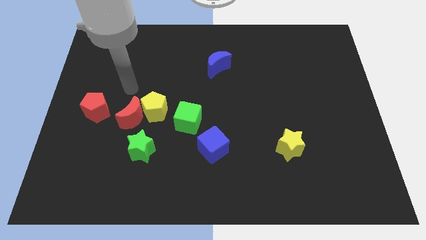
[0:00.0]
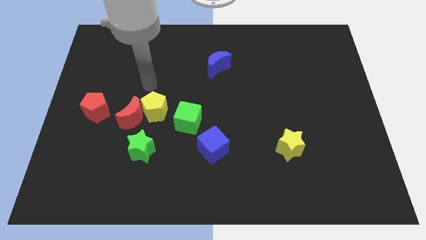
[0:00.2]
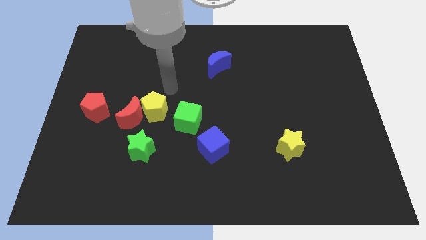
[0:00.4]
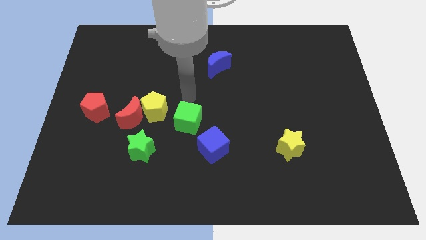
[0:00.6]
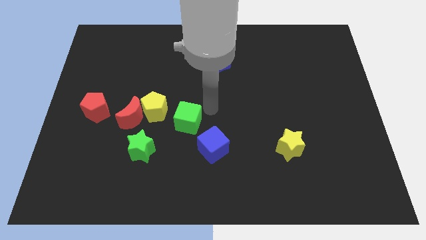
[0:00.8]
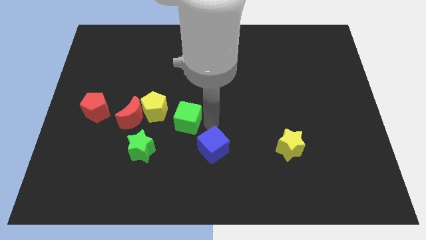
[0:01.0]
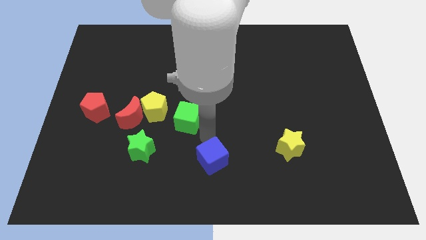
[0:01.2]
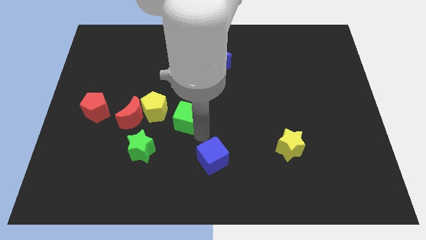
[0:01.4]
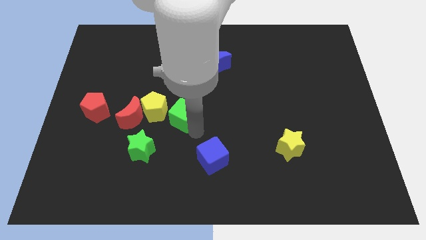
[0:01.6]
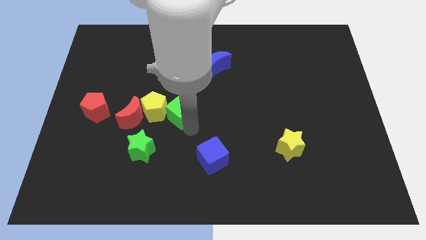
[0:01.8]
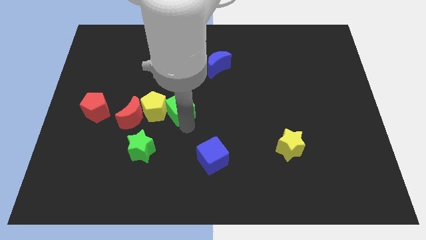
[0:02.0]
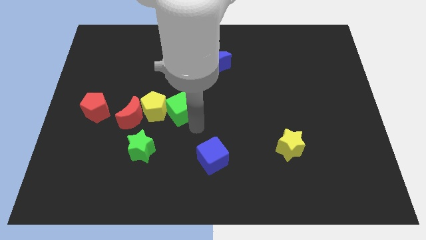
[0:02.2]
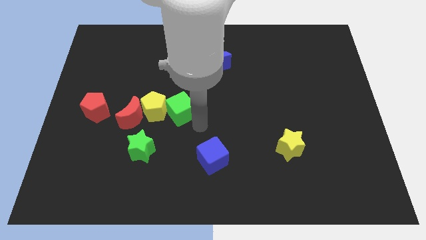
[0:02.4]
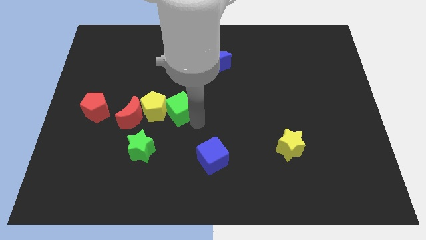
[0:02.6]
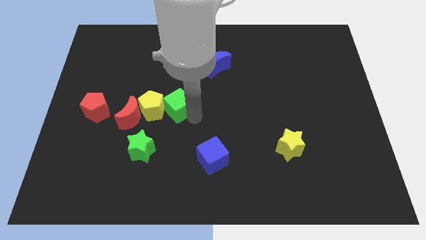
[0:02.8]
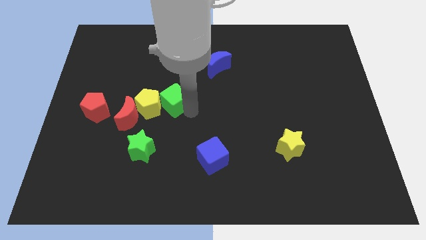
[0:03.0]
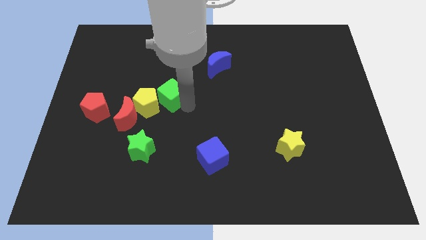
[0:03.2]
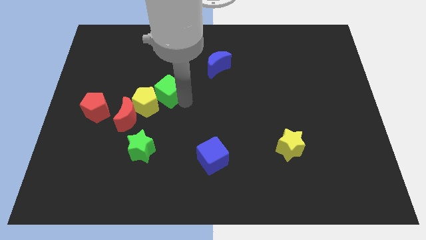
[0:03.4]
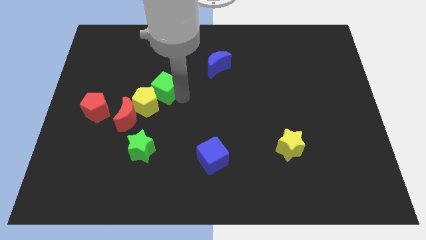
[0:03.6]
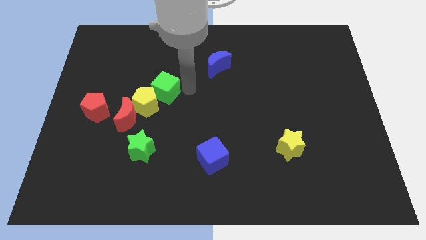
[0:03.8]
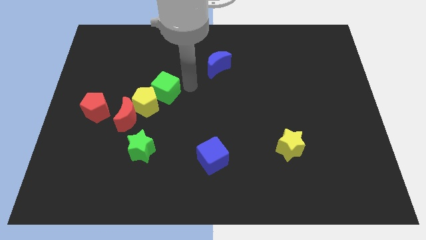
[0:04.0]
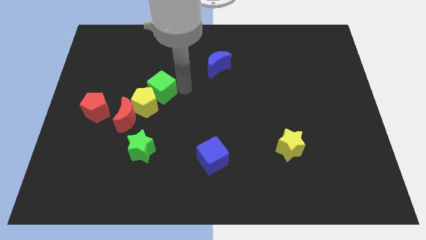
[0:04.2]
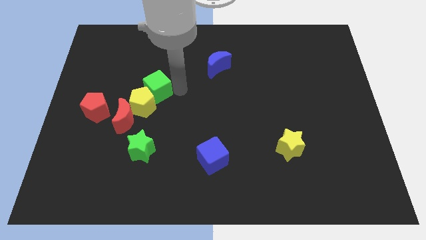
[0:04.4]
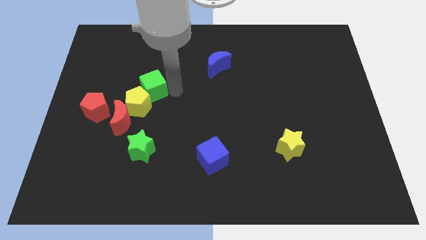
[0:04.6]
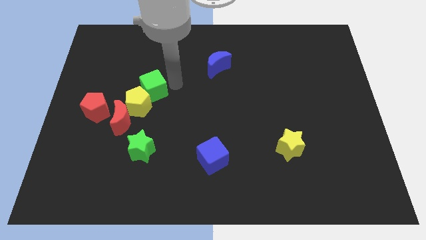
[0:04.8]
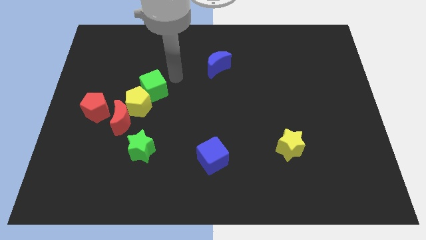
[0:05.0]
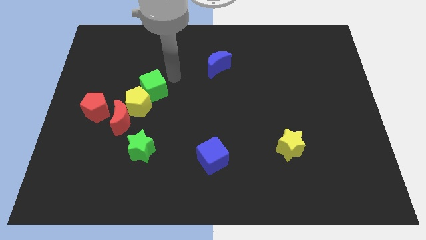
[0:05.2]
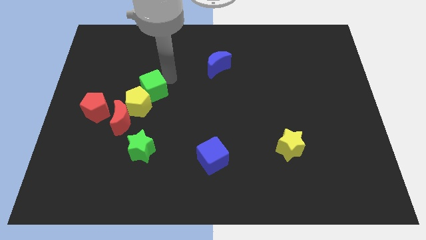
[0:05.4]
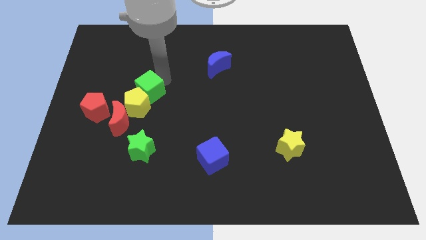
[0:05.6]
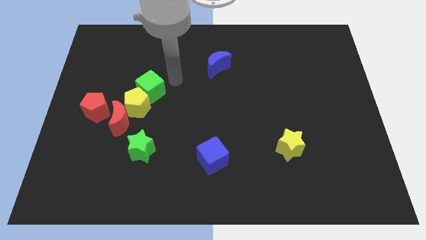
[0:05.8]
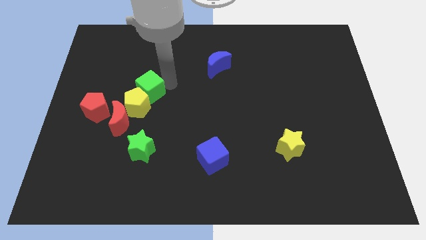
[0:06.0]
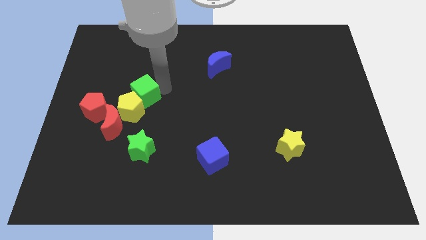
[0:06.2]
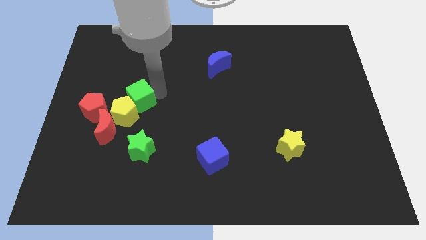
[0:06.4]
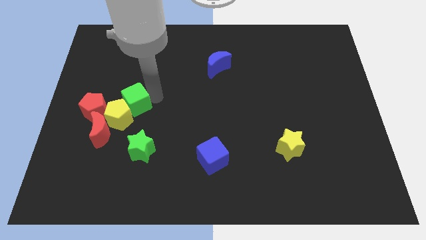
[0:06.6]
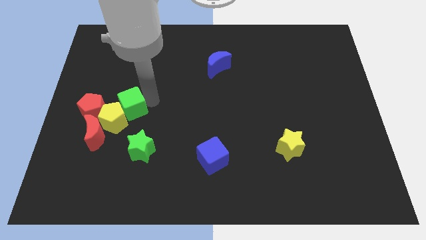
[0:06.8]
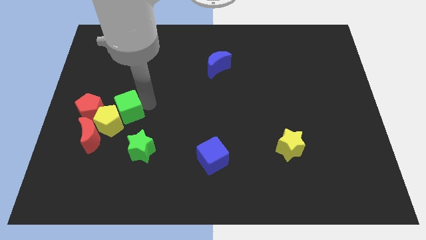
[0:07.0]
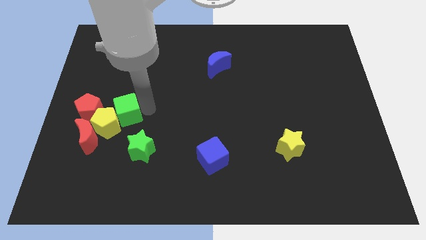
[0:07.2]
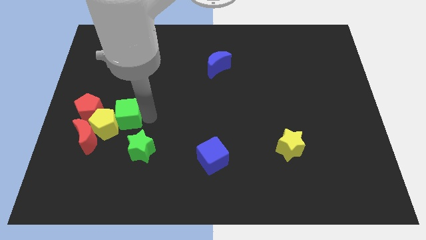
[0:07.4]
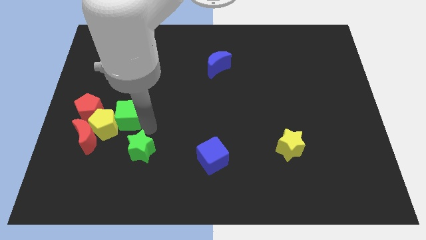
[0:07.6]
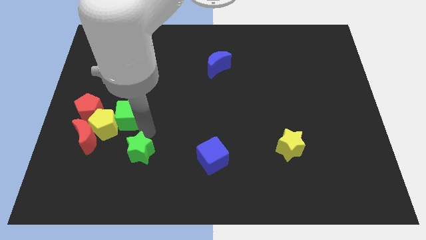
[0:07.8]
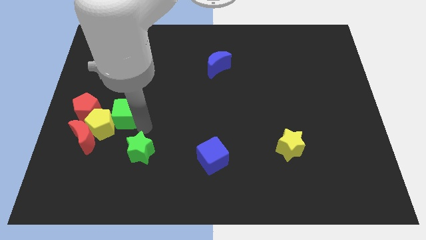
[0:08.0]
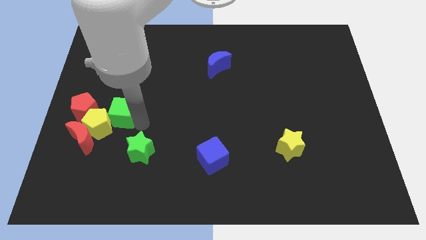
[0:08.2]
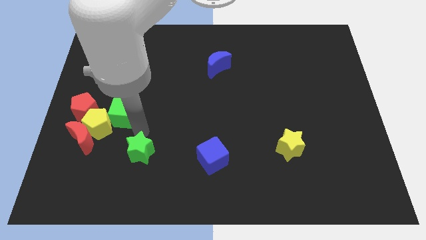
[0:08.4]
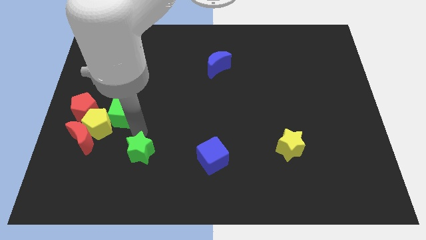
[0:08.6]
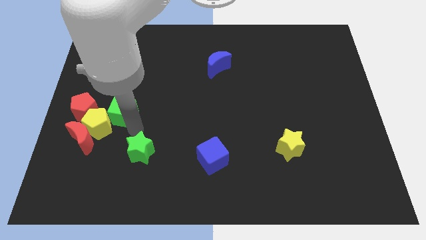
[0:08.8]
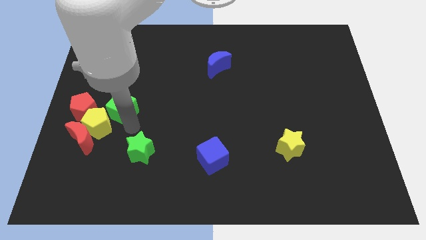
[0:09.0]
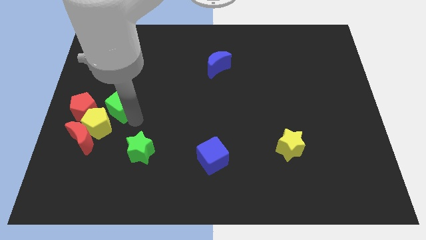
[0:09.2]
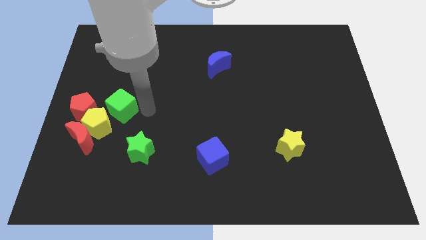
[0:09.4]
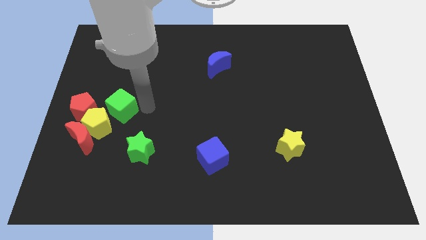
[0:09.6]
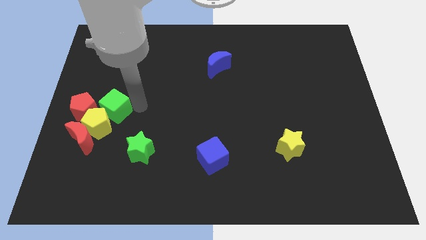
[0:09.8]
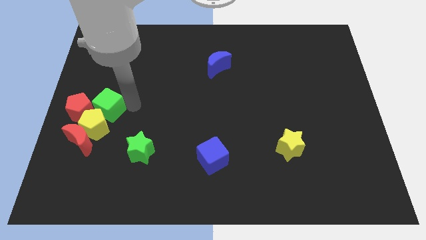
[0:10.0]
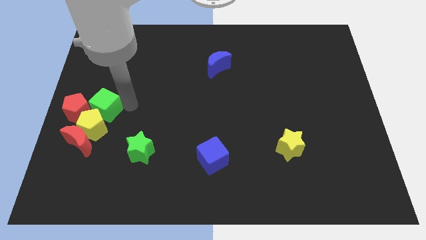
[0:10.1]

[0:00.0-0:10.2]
push the green cube towards the red pentagon

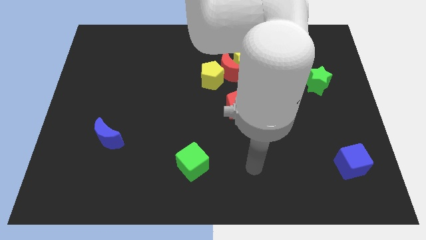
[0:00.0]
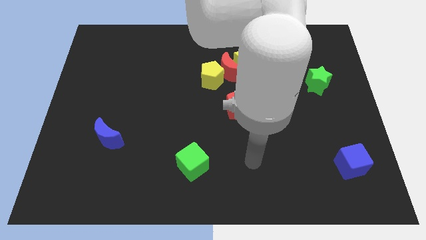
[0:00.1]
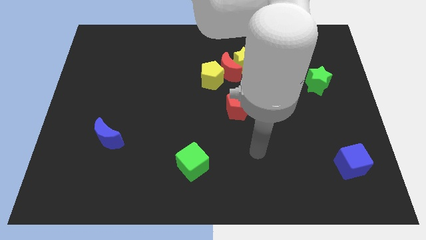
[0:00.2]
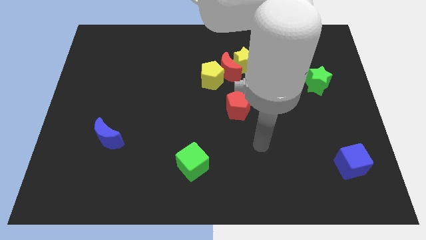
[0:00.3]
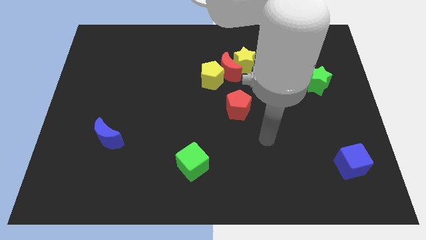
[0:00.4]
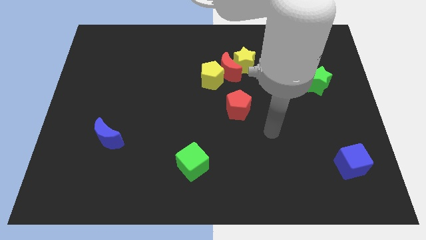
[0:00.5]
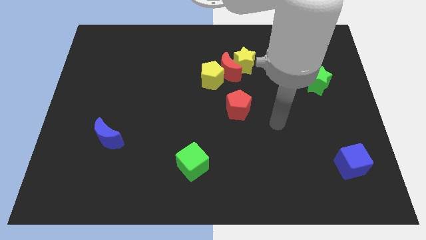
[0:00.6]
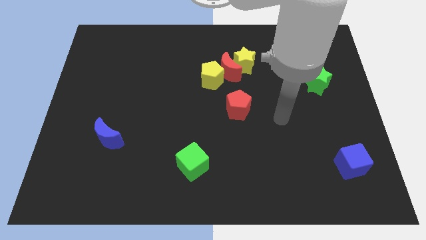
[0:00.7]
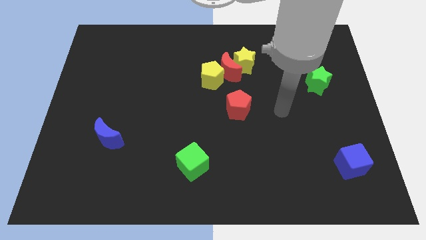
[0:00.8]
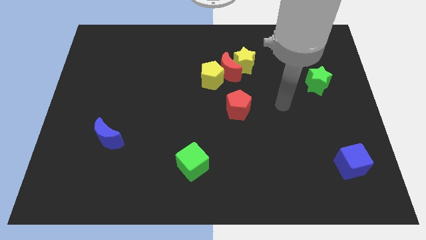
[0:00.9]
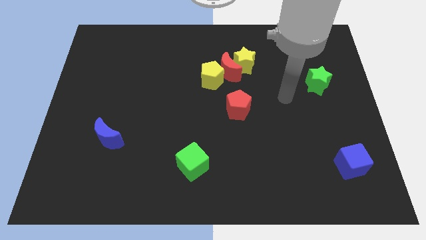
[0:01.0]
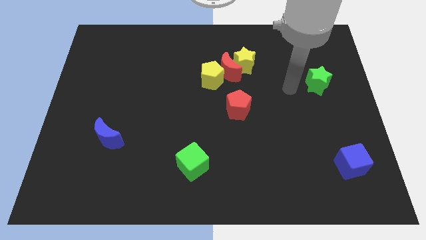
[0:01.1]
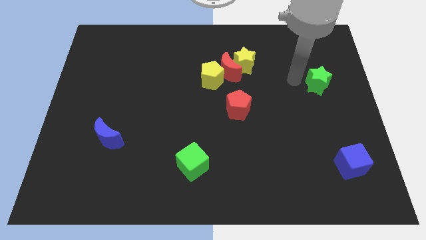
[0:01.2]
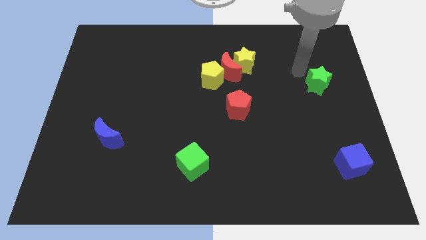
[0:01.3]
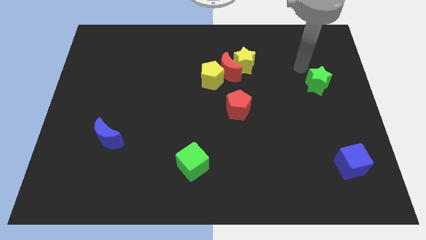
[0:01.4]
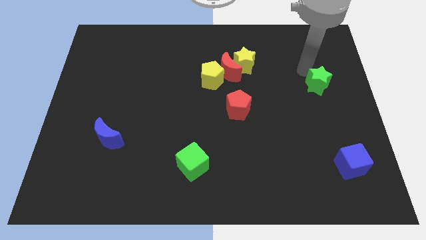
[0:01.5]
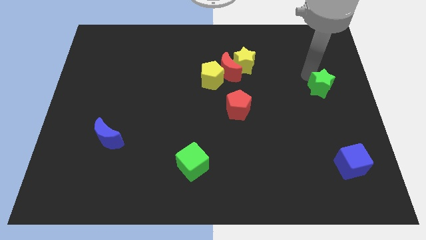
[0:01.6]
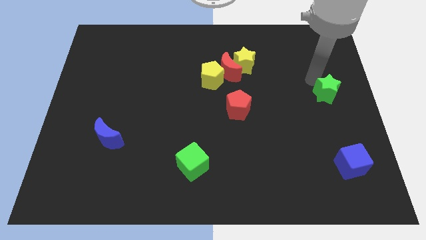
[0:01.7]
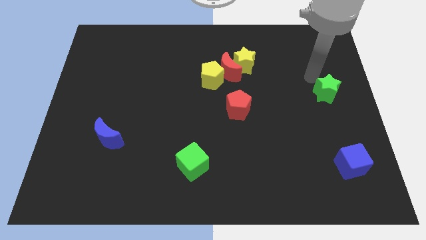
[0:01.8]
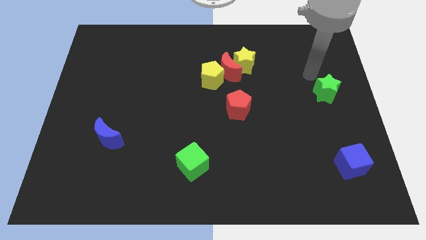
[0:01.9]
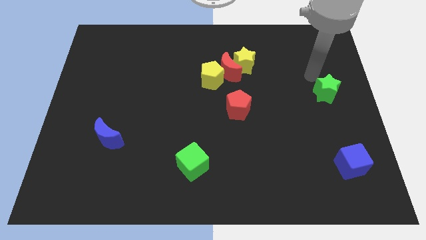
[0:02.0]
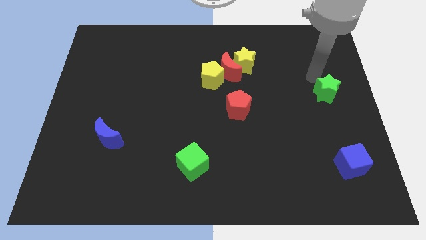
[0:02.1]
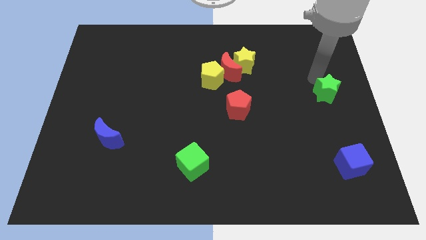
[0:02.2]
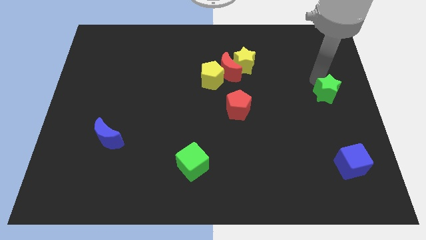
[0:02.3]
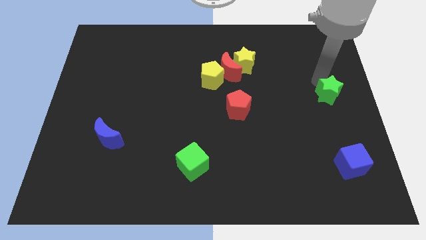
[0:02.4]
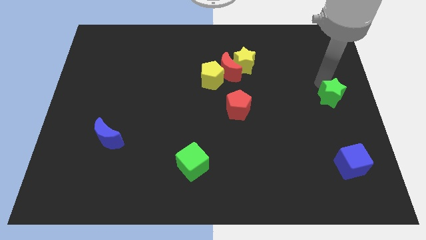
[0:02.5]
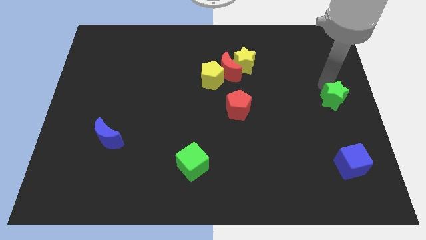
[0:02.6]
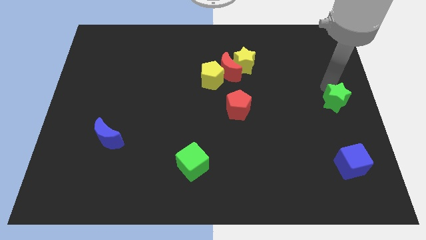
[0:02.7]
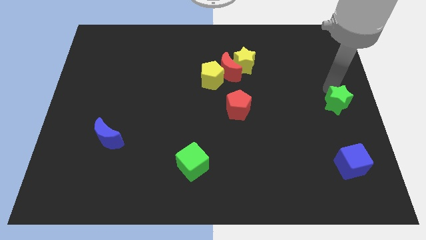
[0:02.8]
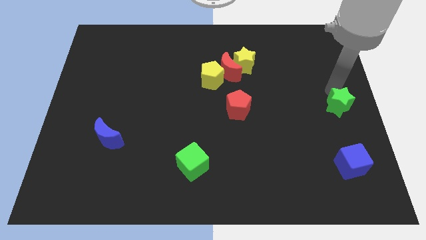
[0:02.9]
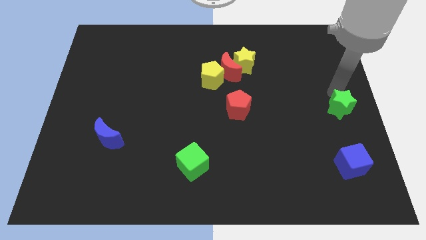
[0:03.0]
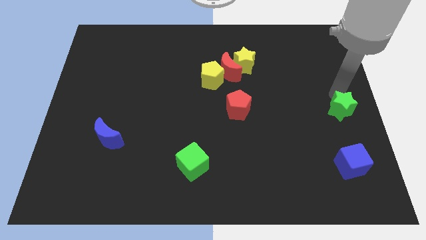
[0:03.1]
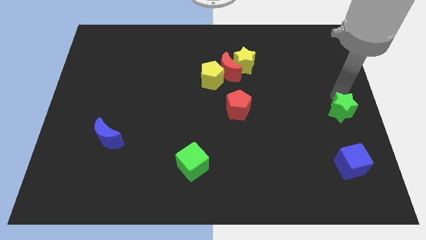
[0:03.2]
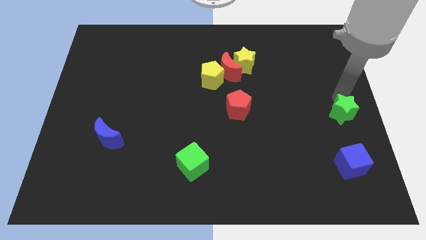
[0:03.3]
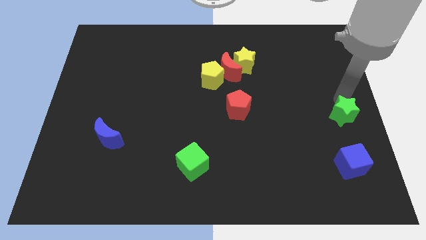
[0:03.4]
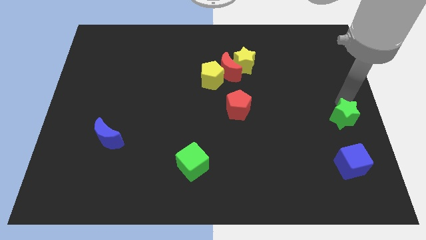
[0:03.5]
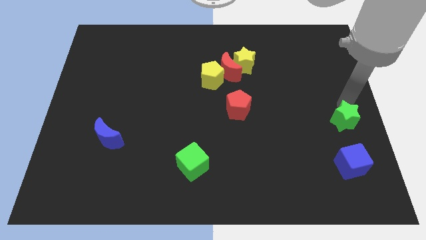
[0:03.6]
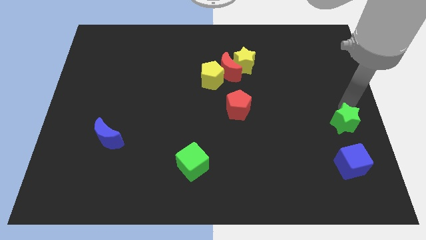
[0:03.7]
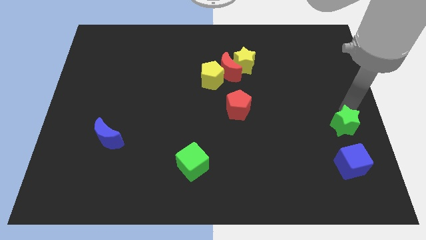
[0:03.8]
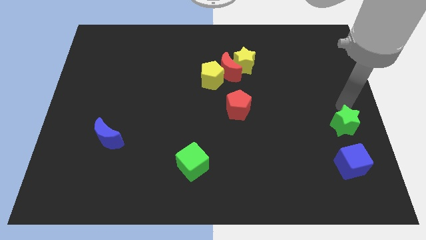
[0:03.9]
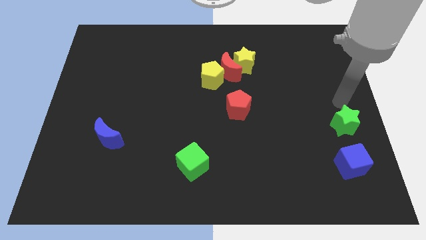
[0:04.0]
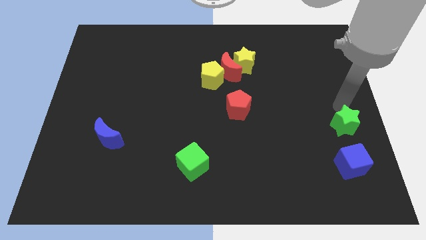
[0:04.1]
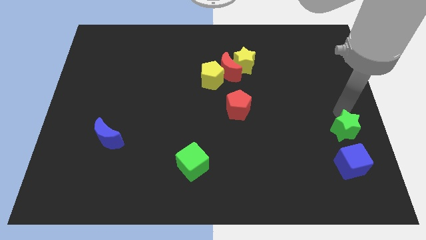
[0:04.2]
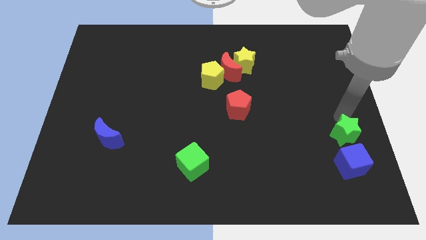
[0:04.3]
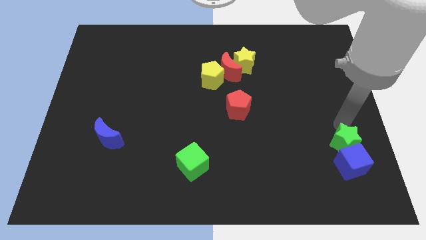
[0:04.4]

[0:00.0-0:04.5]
slide the green star towards the blue cube
